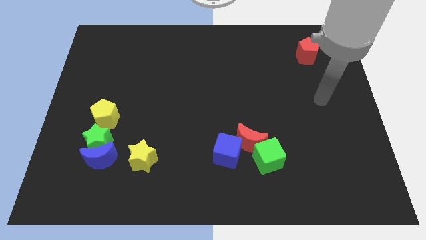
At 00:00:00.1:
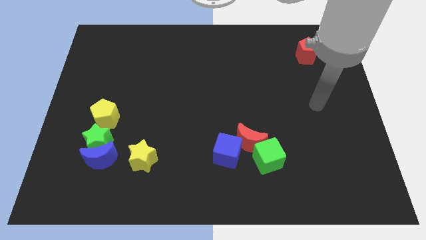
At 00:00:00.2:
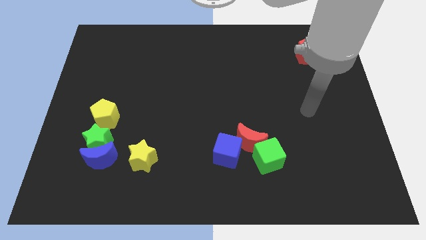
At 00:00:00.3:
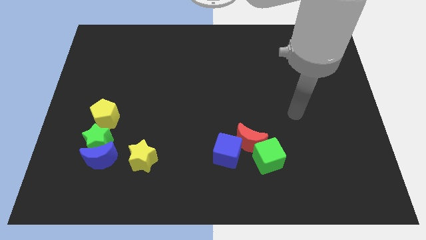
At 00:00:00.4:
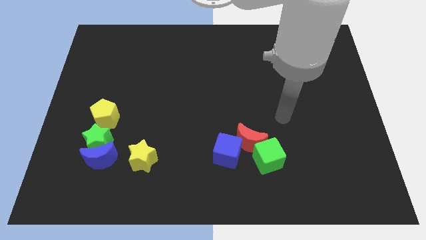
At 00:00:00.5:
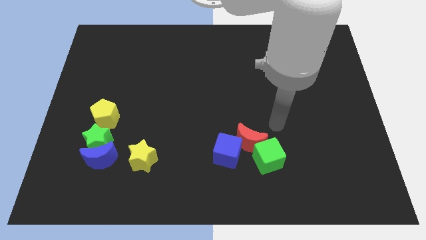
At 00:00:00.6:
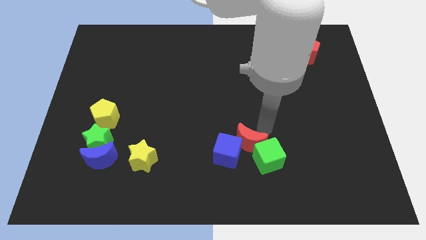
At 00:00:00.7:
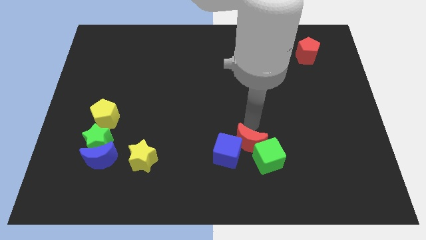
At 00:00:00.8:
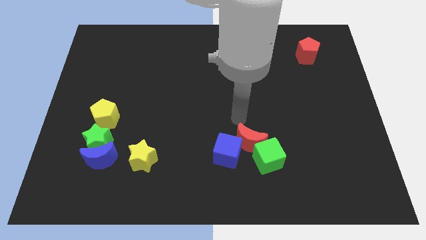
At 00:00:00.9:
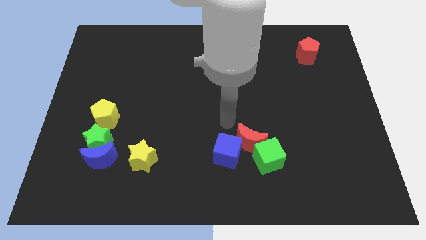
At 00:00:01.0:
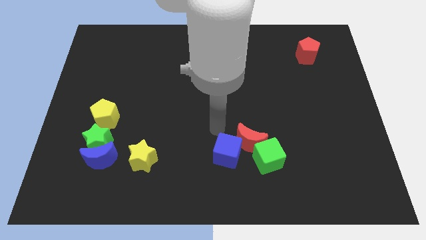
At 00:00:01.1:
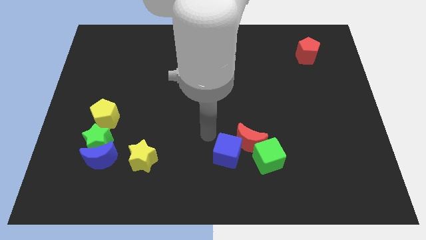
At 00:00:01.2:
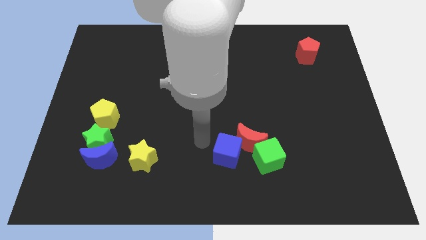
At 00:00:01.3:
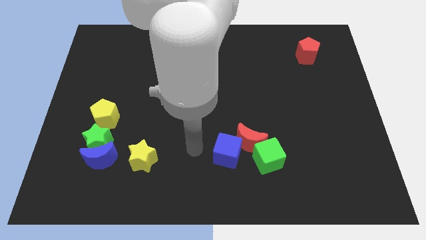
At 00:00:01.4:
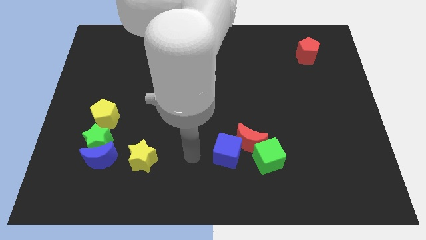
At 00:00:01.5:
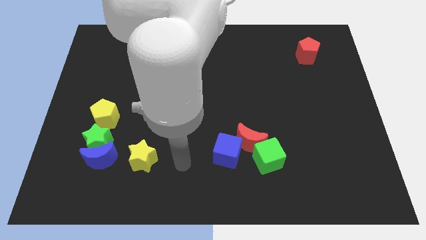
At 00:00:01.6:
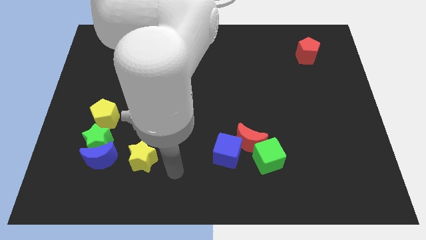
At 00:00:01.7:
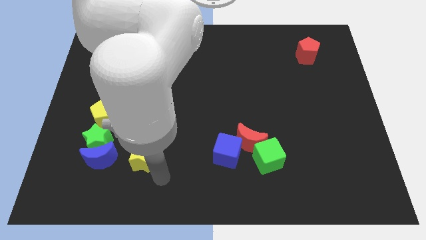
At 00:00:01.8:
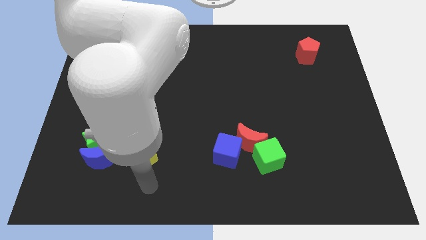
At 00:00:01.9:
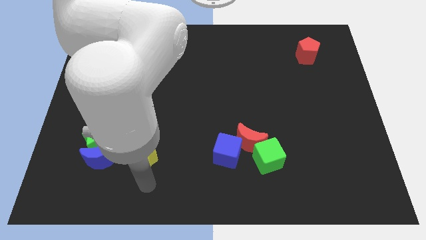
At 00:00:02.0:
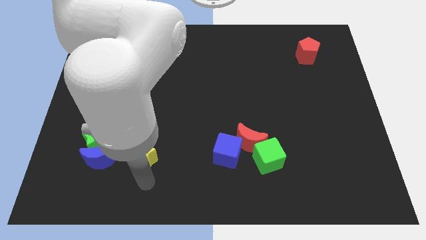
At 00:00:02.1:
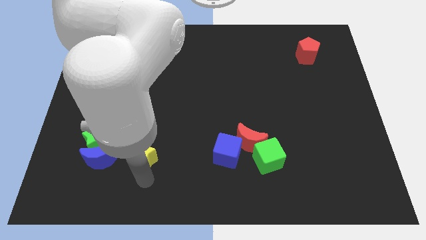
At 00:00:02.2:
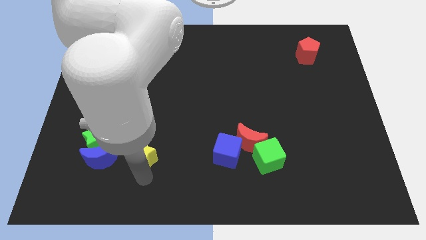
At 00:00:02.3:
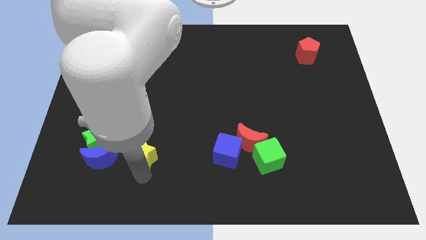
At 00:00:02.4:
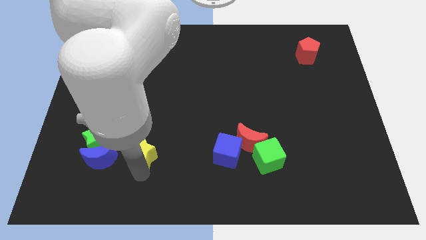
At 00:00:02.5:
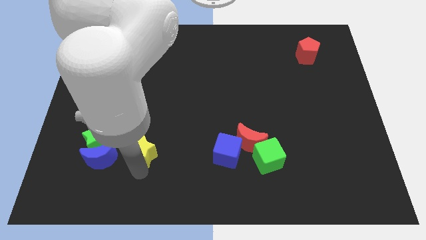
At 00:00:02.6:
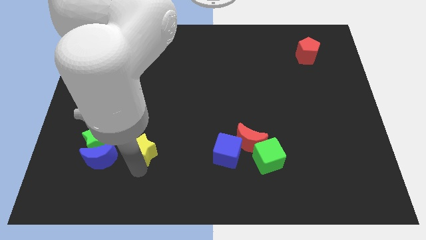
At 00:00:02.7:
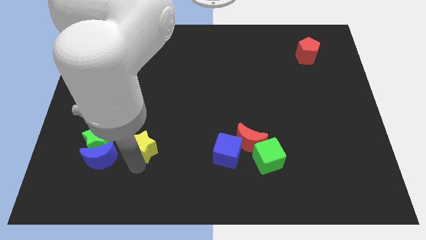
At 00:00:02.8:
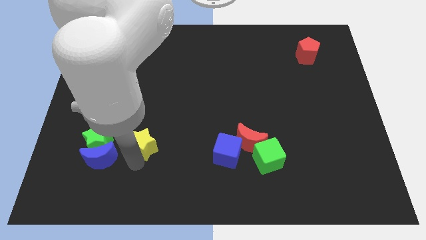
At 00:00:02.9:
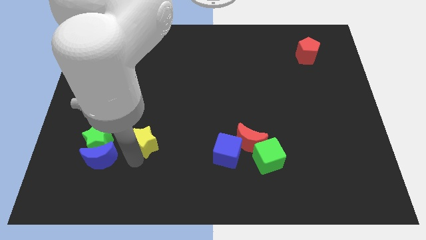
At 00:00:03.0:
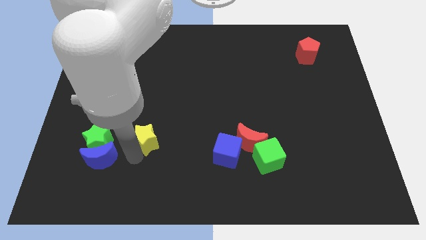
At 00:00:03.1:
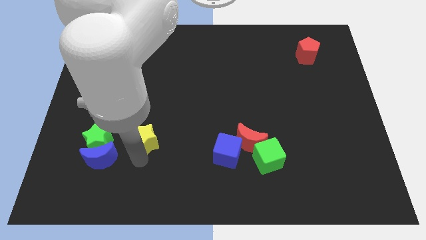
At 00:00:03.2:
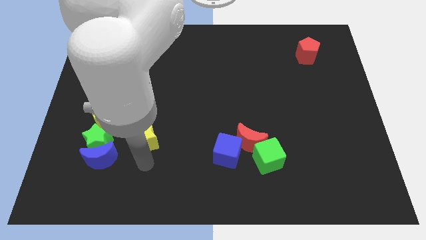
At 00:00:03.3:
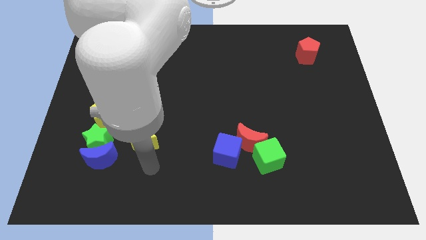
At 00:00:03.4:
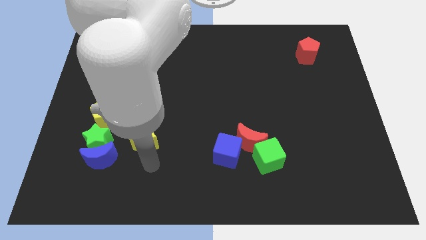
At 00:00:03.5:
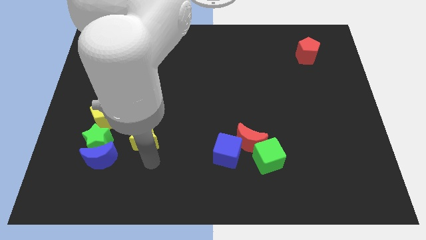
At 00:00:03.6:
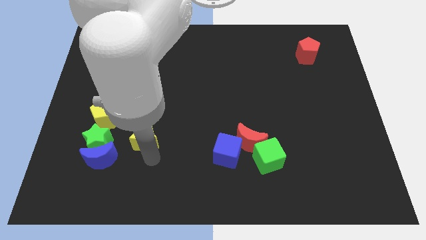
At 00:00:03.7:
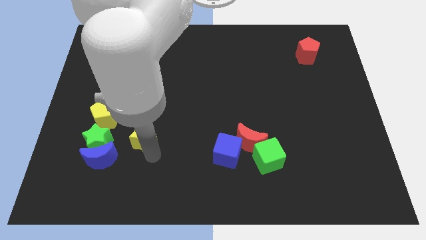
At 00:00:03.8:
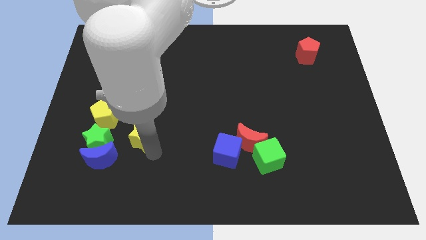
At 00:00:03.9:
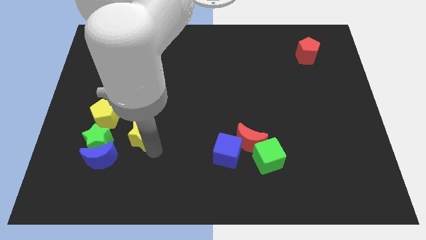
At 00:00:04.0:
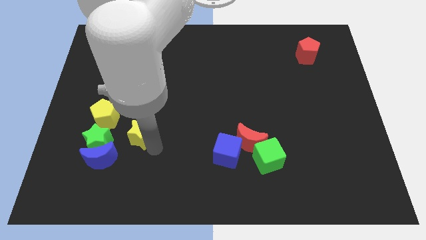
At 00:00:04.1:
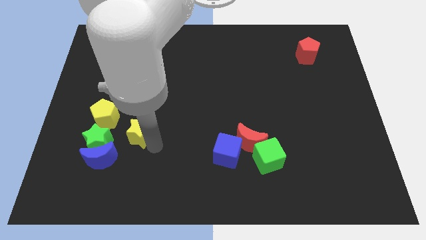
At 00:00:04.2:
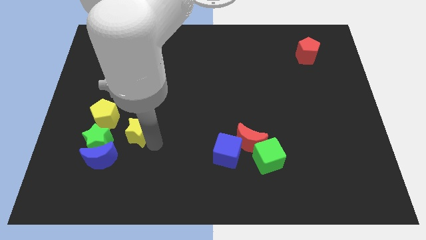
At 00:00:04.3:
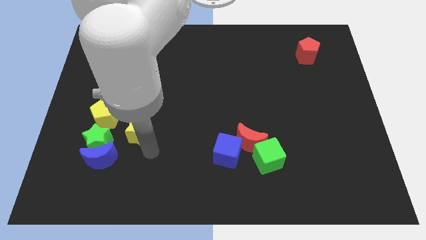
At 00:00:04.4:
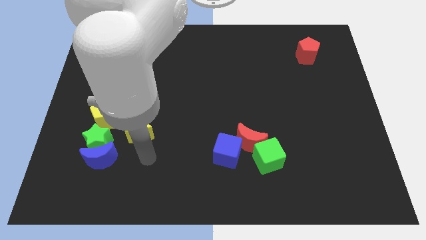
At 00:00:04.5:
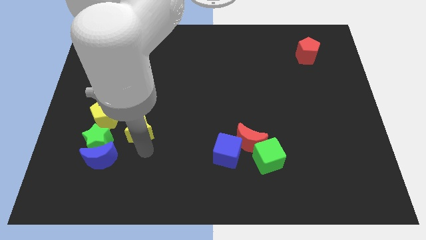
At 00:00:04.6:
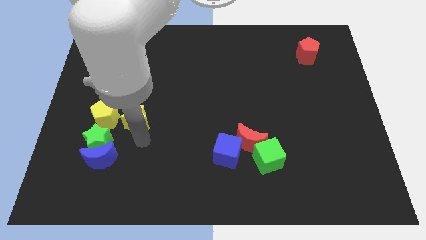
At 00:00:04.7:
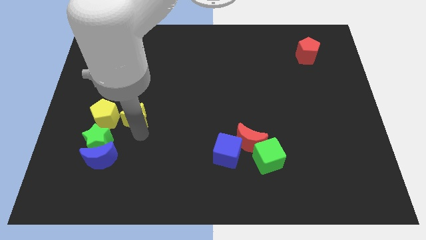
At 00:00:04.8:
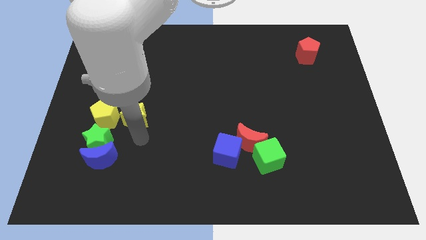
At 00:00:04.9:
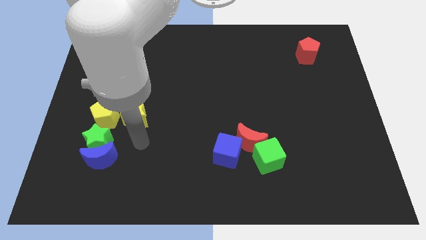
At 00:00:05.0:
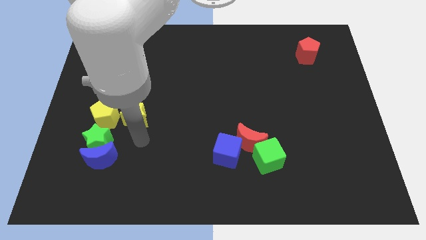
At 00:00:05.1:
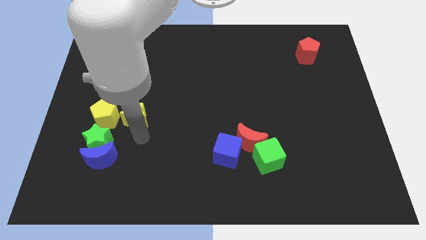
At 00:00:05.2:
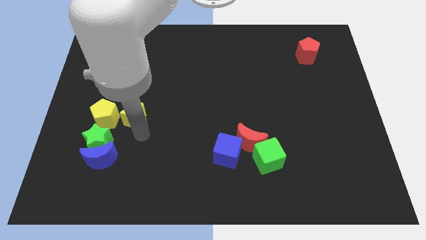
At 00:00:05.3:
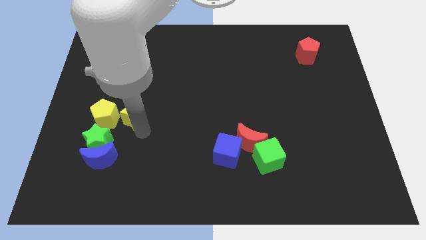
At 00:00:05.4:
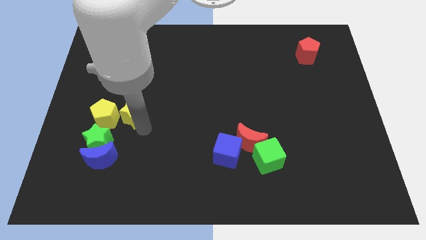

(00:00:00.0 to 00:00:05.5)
slide the yellow star diagonally up and to the right of the yellow pentagon
